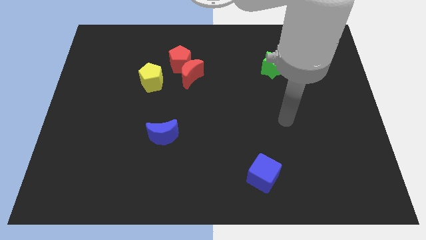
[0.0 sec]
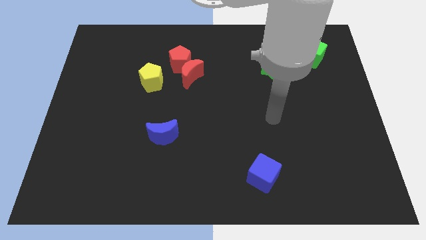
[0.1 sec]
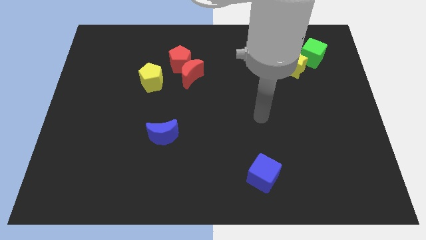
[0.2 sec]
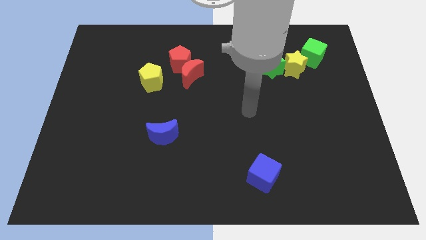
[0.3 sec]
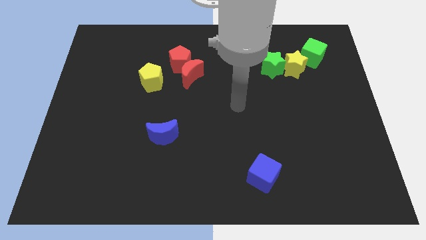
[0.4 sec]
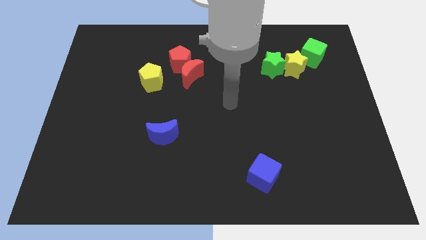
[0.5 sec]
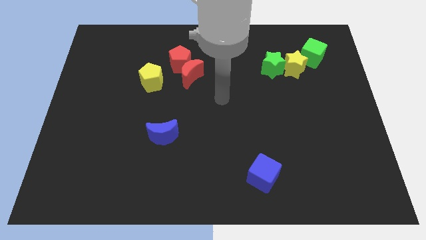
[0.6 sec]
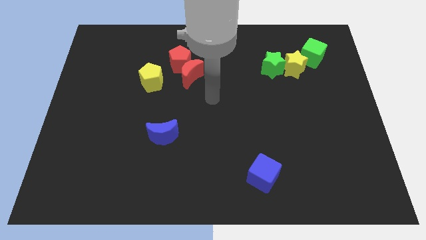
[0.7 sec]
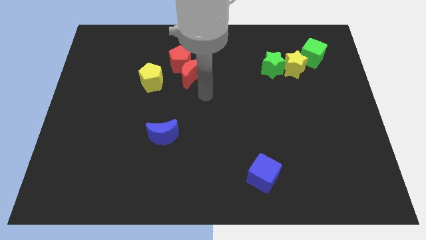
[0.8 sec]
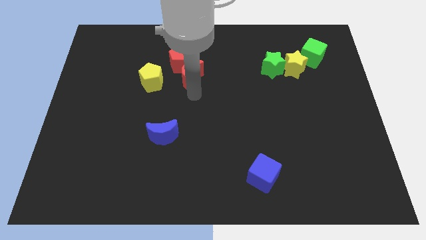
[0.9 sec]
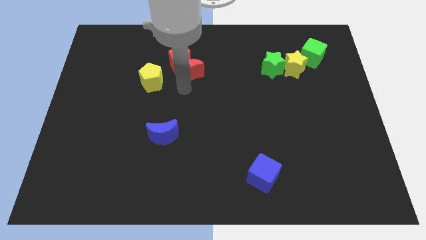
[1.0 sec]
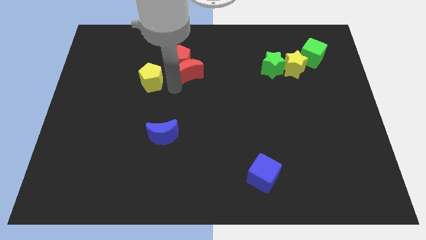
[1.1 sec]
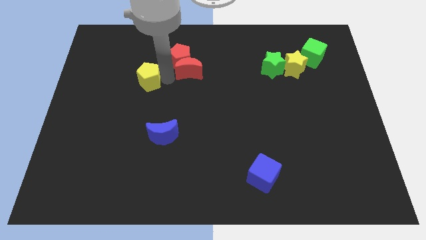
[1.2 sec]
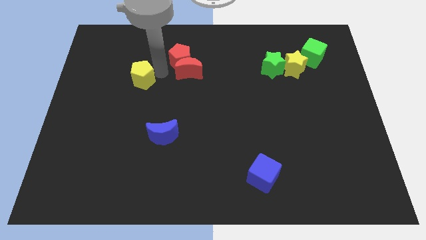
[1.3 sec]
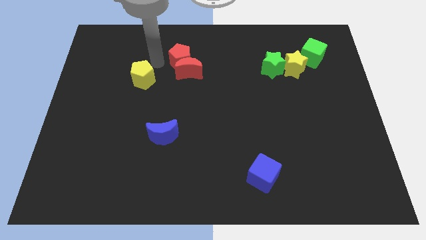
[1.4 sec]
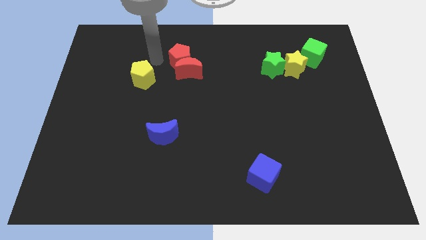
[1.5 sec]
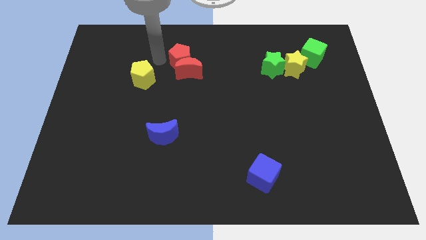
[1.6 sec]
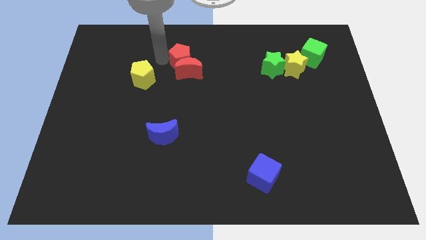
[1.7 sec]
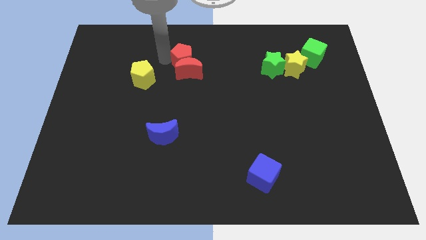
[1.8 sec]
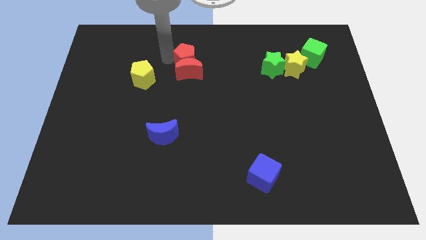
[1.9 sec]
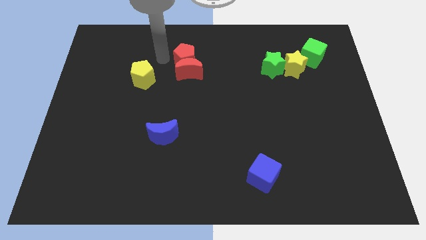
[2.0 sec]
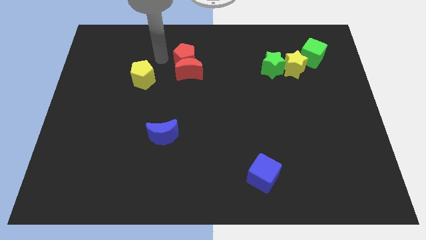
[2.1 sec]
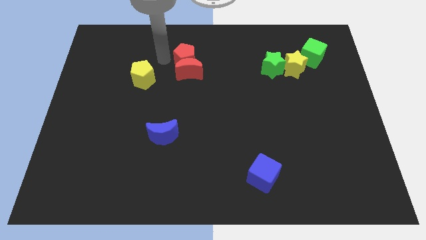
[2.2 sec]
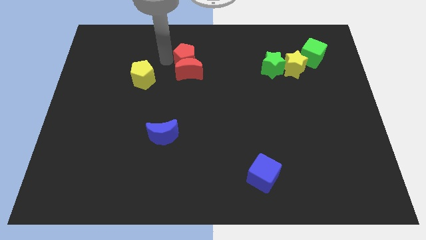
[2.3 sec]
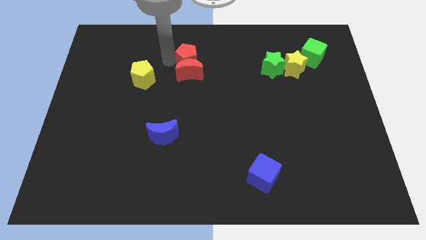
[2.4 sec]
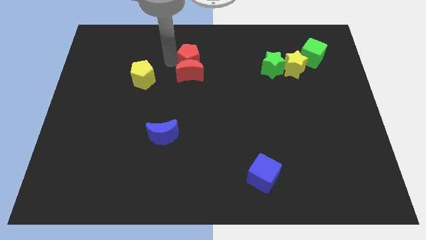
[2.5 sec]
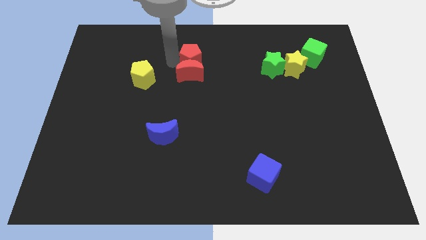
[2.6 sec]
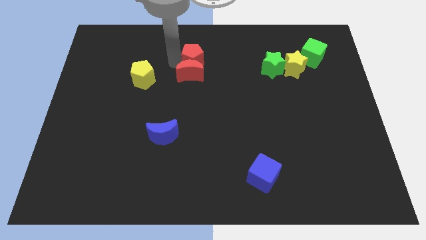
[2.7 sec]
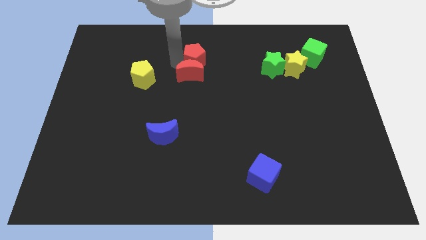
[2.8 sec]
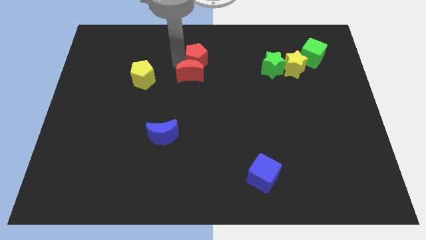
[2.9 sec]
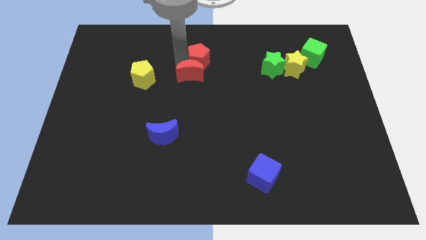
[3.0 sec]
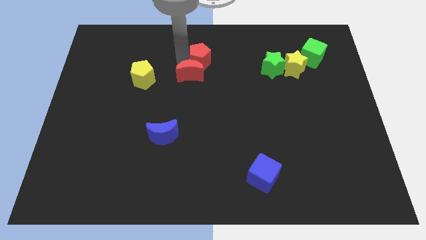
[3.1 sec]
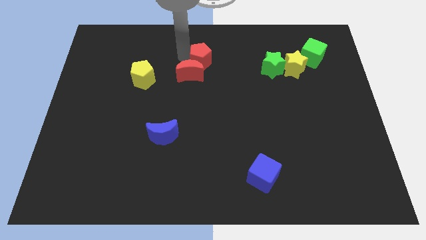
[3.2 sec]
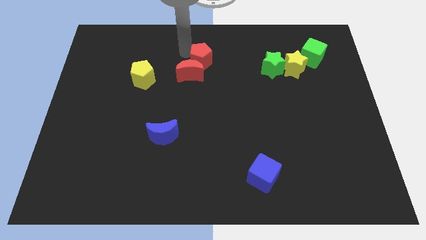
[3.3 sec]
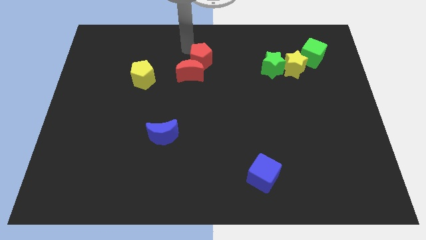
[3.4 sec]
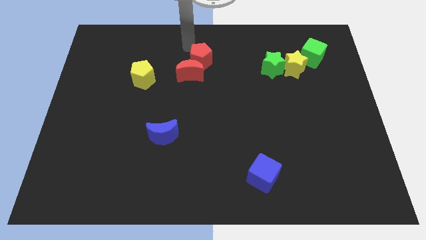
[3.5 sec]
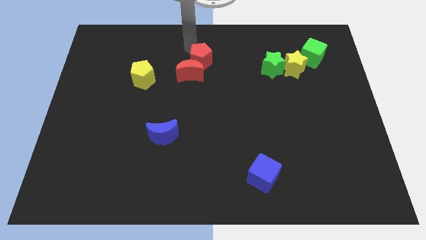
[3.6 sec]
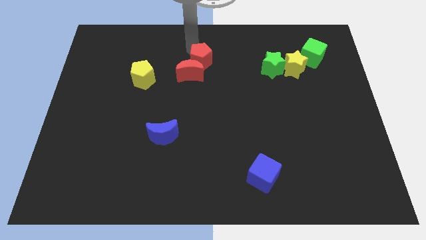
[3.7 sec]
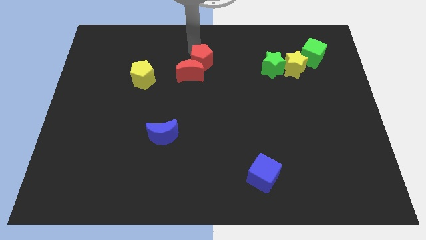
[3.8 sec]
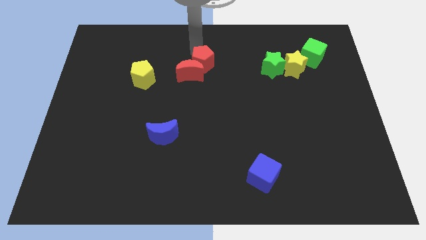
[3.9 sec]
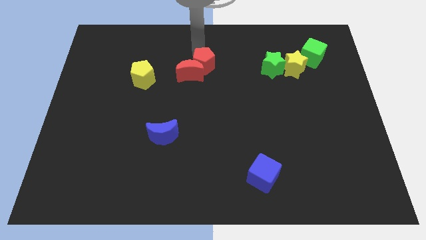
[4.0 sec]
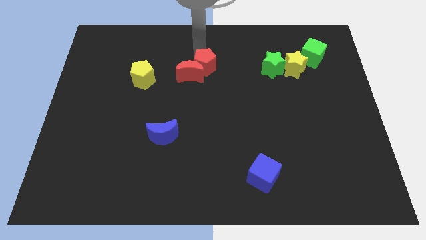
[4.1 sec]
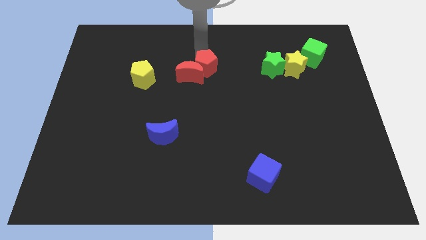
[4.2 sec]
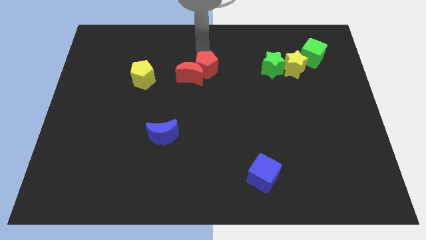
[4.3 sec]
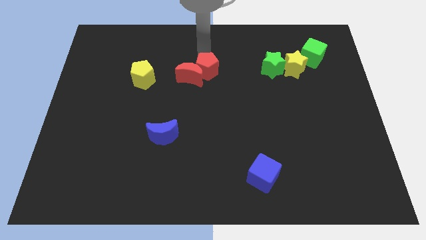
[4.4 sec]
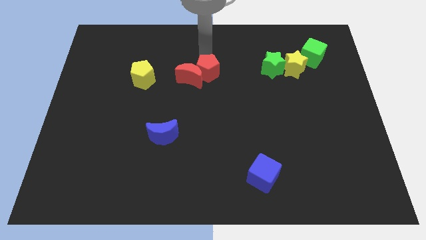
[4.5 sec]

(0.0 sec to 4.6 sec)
move the red pentagon downwards and to the right a little bit

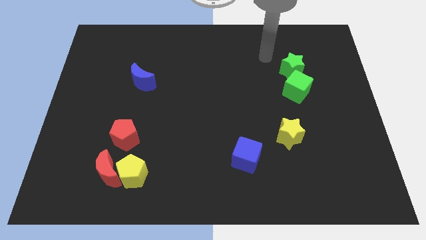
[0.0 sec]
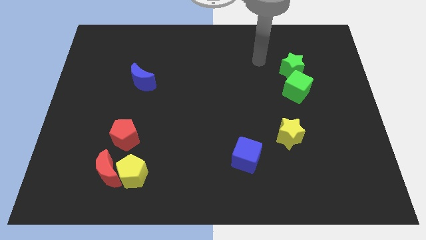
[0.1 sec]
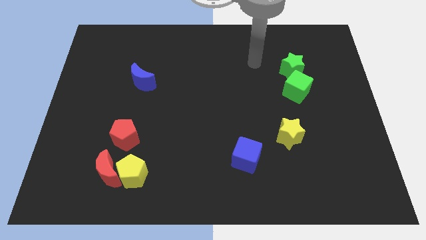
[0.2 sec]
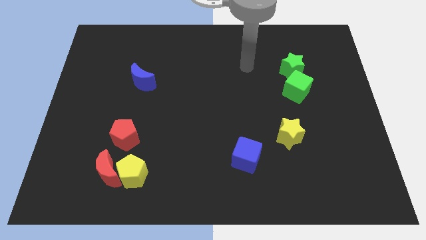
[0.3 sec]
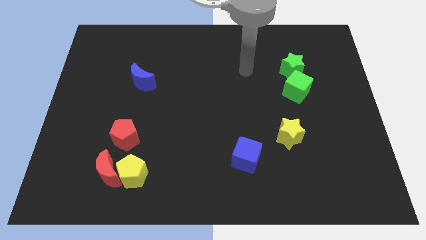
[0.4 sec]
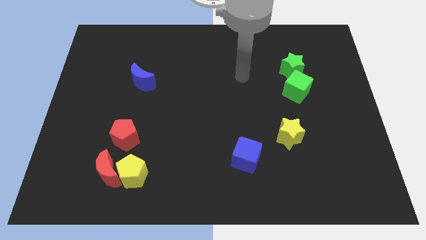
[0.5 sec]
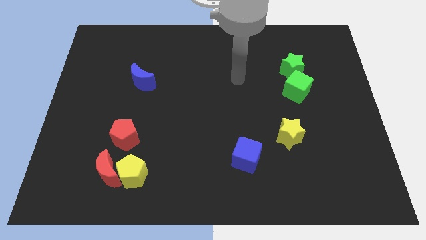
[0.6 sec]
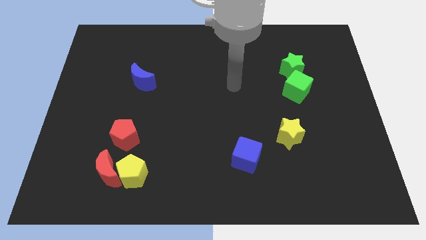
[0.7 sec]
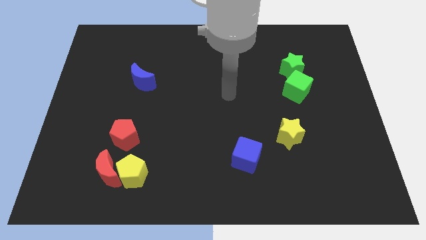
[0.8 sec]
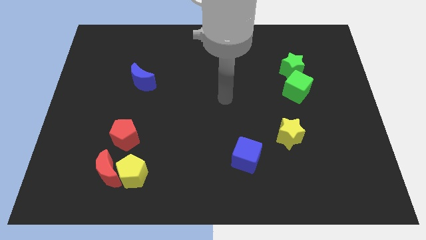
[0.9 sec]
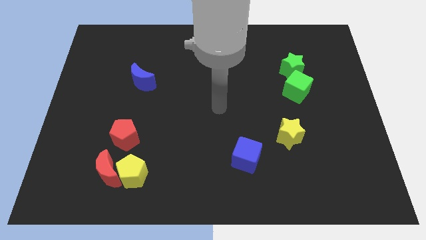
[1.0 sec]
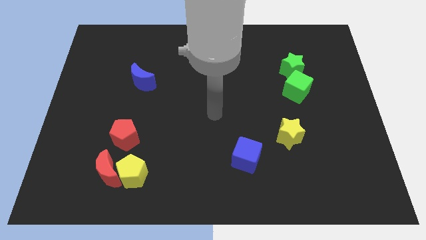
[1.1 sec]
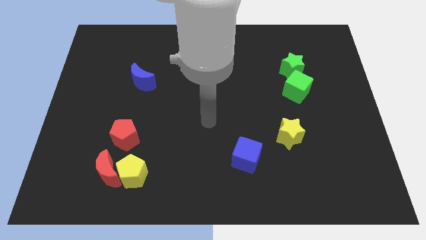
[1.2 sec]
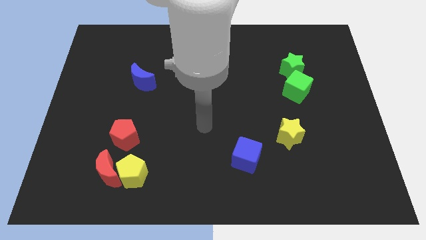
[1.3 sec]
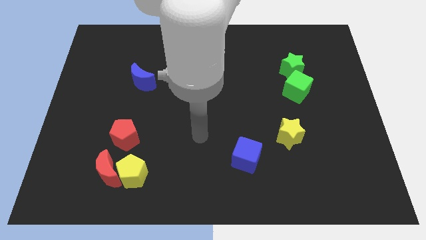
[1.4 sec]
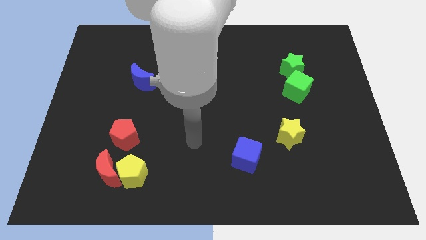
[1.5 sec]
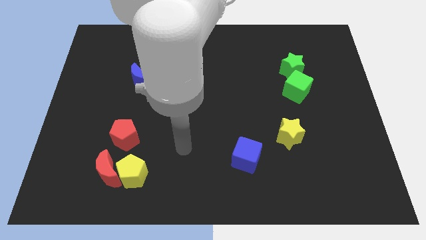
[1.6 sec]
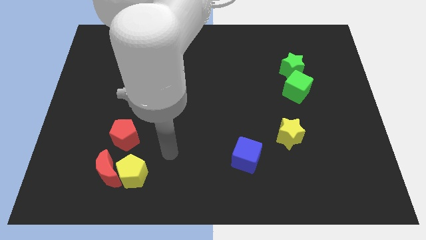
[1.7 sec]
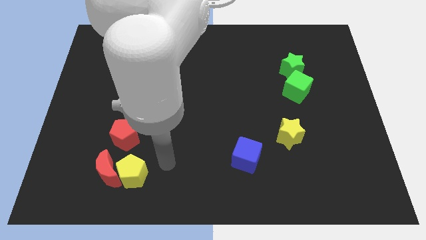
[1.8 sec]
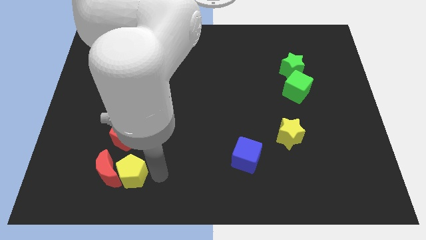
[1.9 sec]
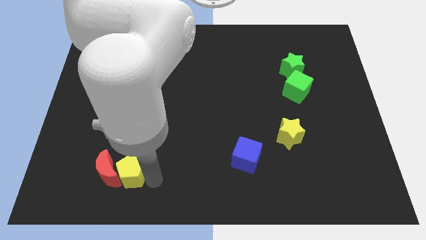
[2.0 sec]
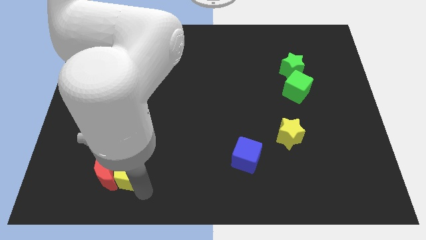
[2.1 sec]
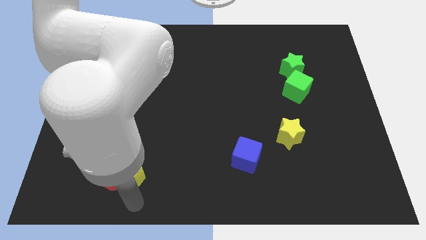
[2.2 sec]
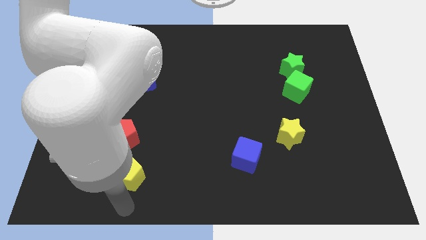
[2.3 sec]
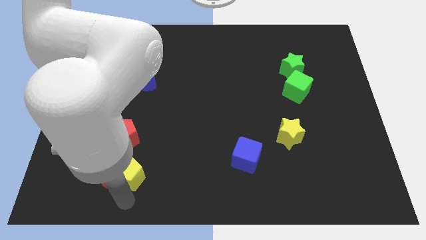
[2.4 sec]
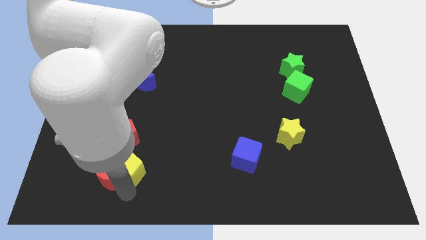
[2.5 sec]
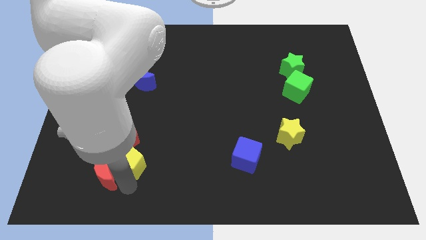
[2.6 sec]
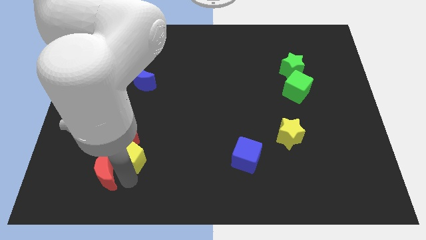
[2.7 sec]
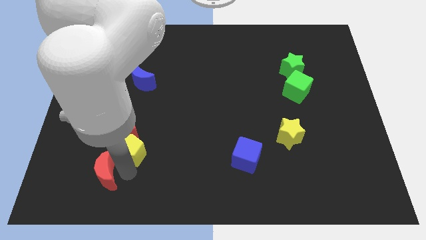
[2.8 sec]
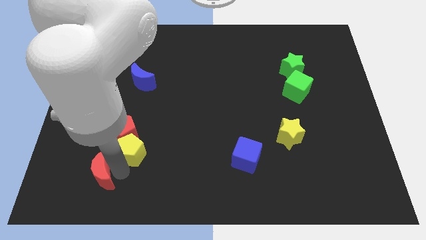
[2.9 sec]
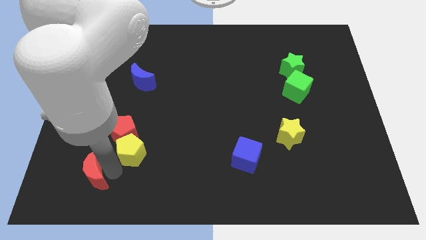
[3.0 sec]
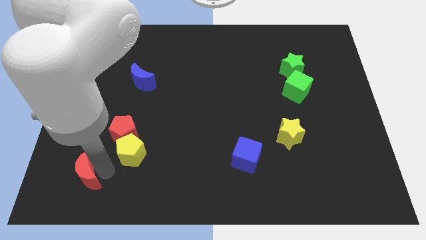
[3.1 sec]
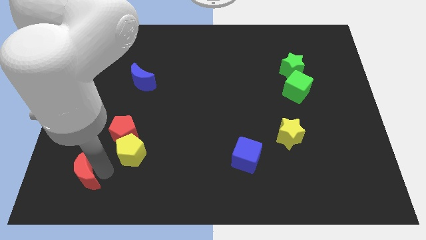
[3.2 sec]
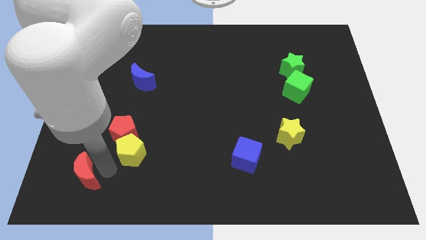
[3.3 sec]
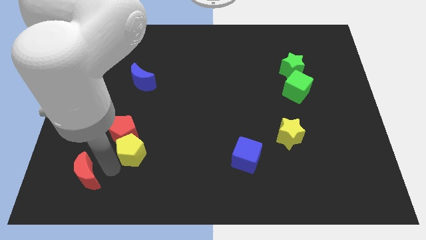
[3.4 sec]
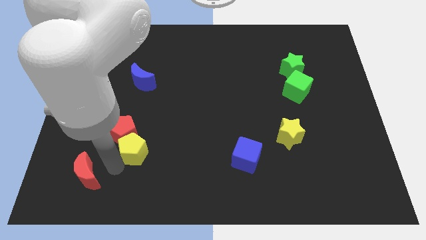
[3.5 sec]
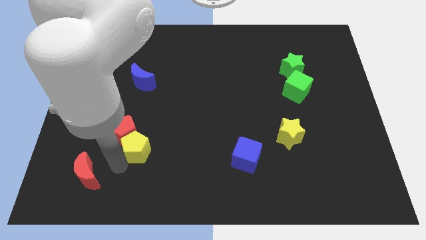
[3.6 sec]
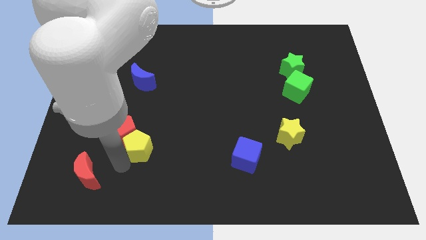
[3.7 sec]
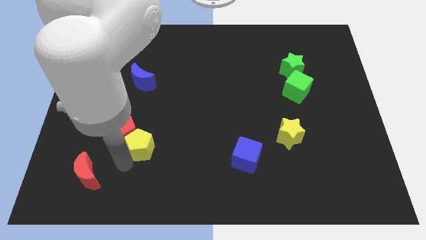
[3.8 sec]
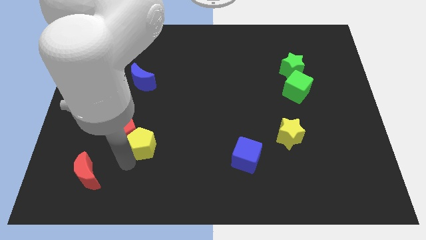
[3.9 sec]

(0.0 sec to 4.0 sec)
slide the yellow pentagon upwards slightly
